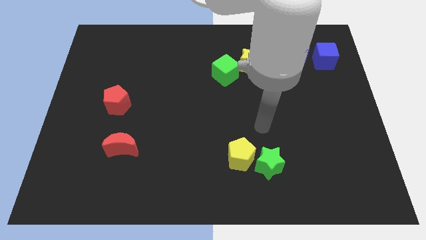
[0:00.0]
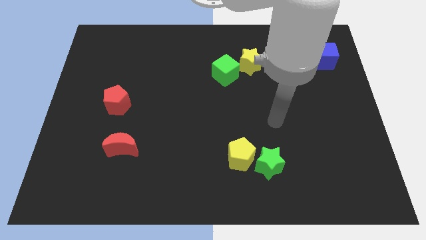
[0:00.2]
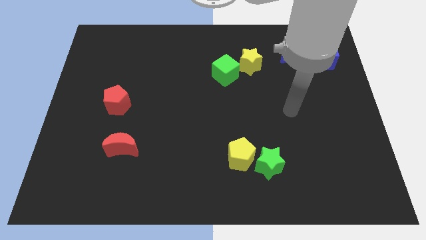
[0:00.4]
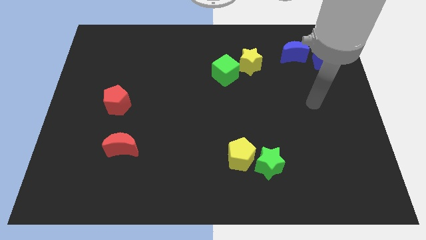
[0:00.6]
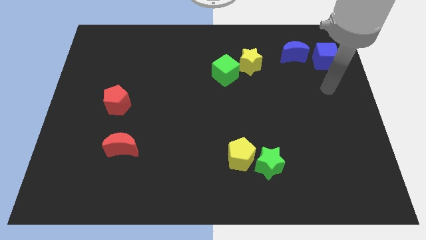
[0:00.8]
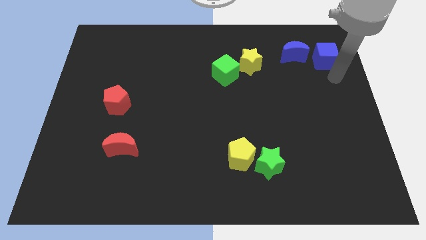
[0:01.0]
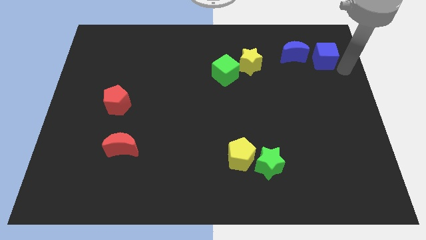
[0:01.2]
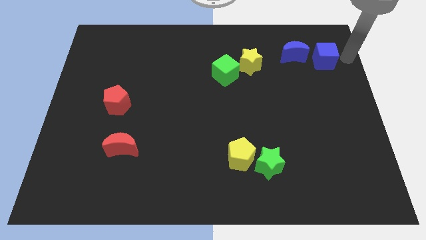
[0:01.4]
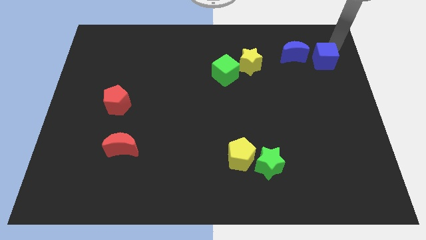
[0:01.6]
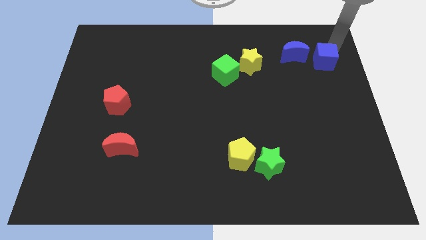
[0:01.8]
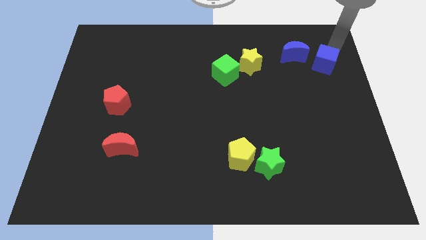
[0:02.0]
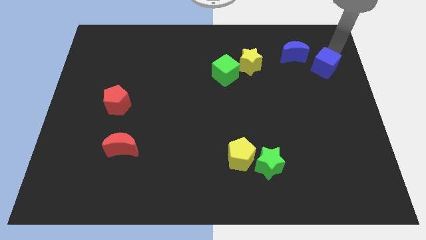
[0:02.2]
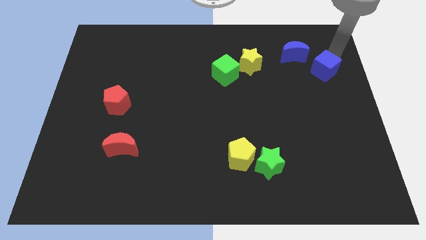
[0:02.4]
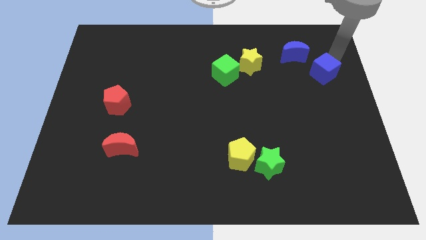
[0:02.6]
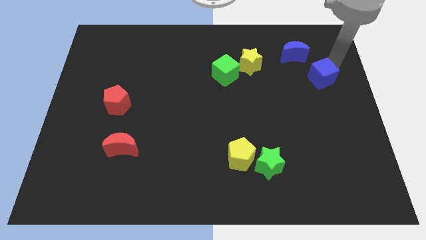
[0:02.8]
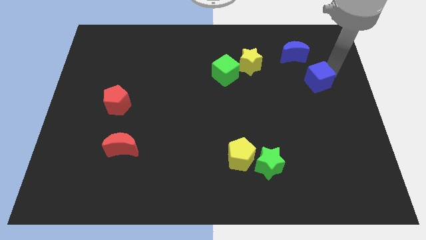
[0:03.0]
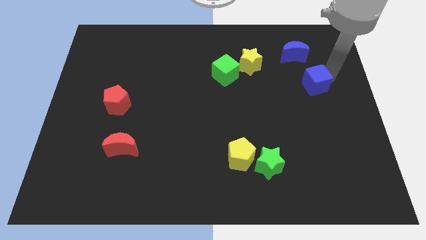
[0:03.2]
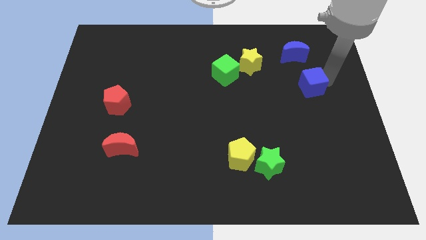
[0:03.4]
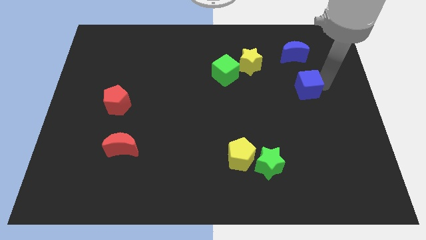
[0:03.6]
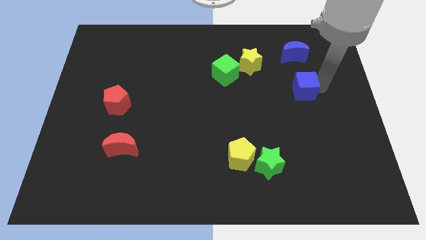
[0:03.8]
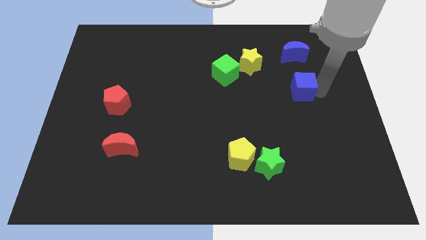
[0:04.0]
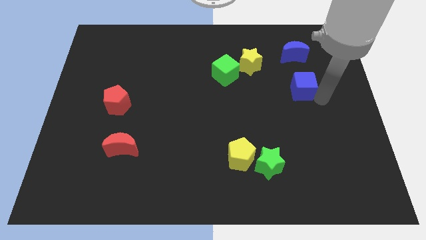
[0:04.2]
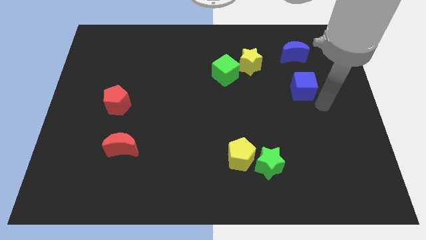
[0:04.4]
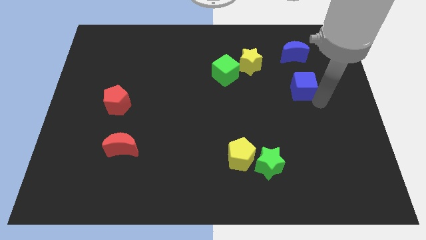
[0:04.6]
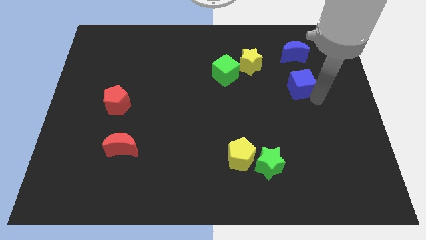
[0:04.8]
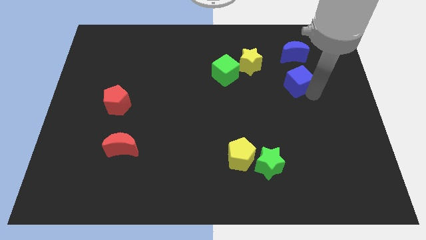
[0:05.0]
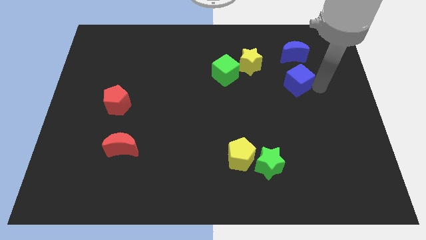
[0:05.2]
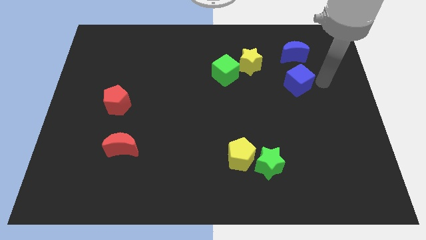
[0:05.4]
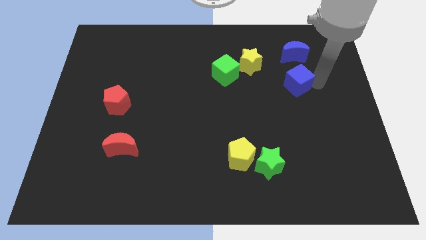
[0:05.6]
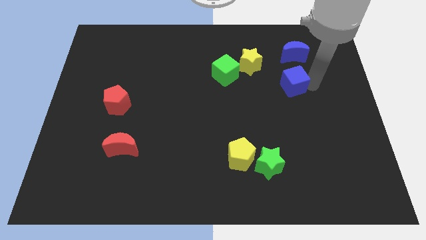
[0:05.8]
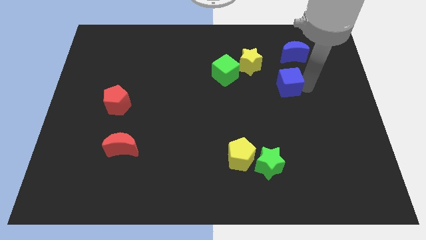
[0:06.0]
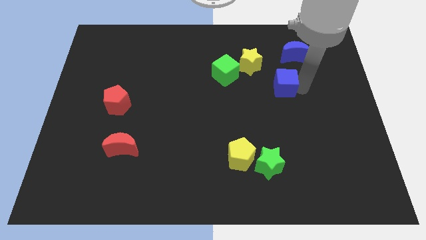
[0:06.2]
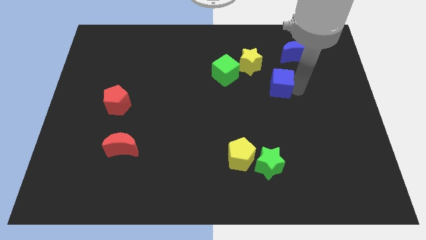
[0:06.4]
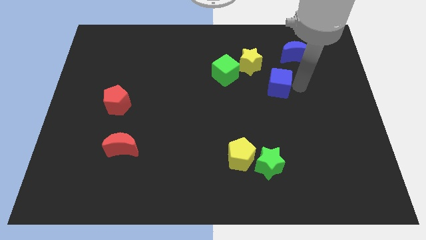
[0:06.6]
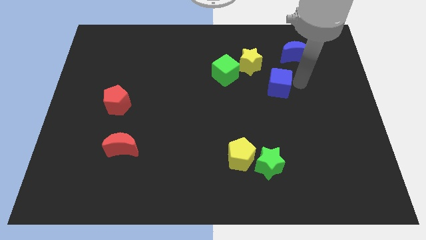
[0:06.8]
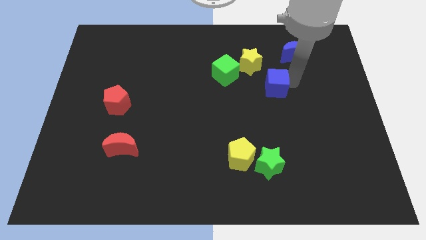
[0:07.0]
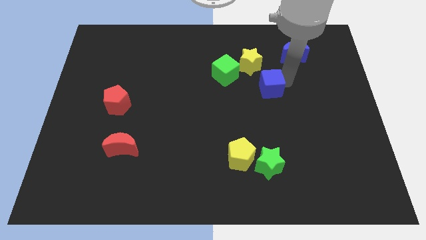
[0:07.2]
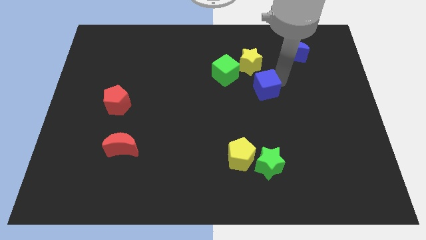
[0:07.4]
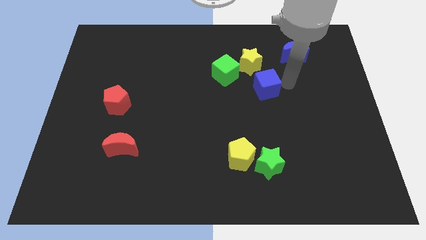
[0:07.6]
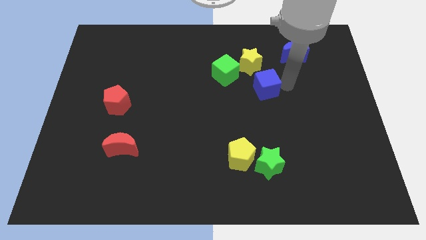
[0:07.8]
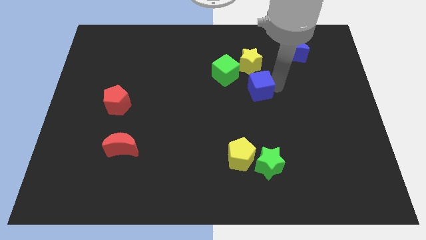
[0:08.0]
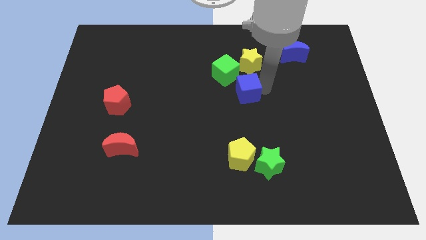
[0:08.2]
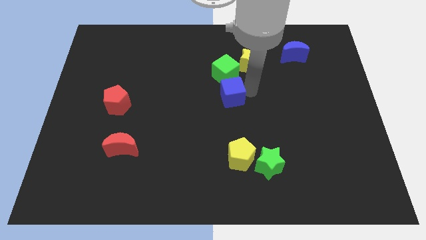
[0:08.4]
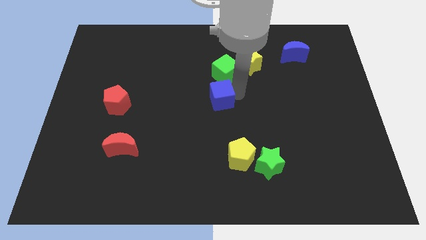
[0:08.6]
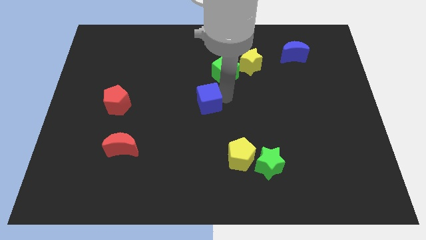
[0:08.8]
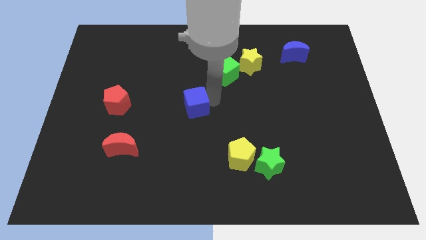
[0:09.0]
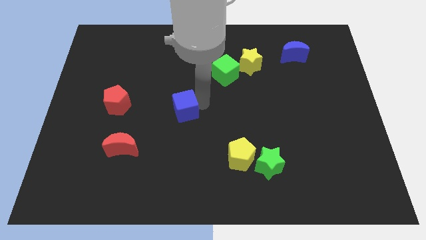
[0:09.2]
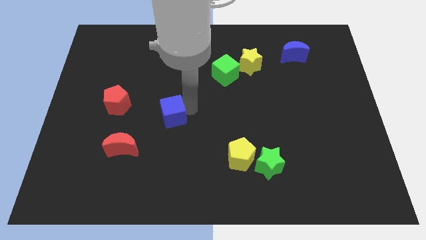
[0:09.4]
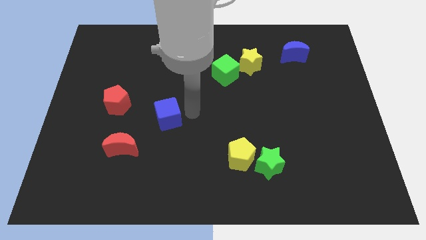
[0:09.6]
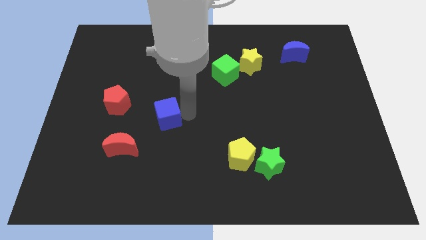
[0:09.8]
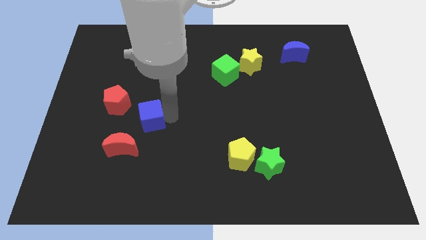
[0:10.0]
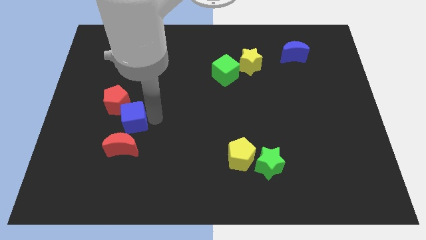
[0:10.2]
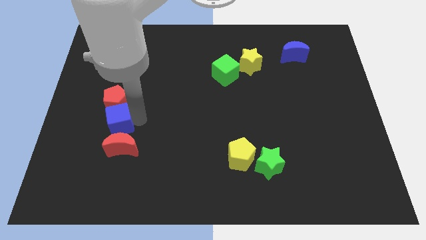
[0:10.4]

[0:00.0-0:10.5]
move the blue cube to the top left of the red moon

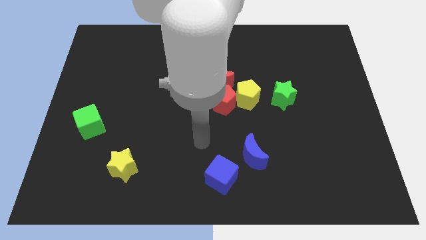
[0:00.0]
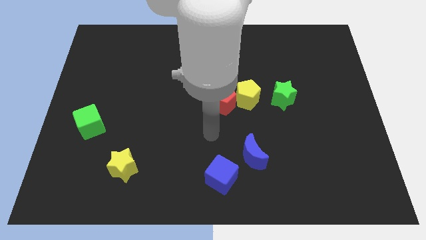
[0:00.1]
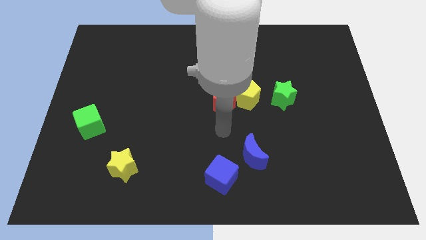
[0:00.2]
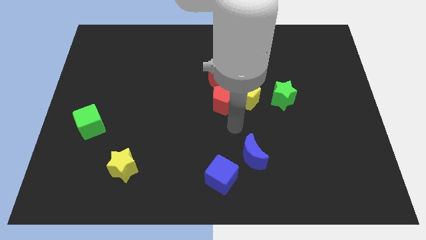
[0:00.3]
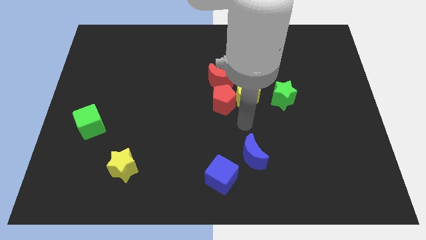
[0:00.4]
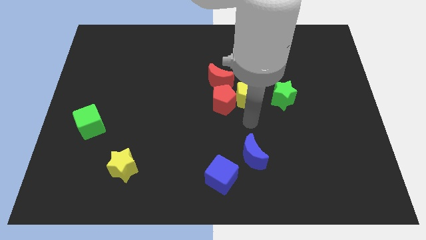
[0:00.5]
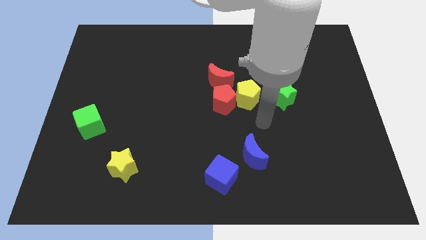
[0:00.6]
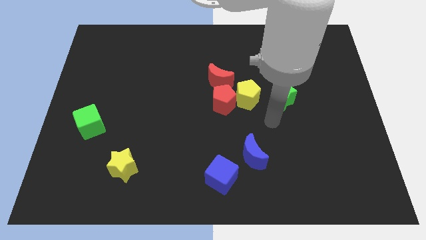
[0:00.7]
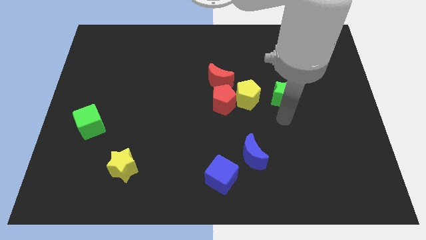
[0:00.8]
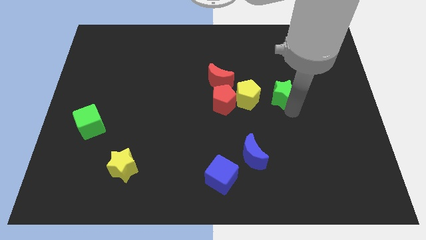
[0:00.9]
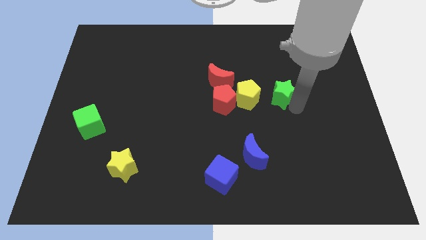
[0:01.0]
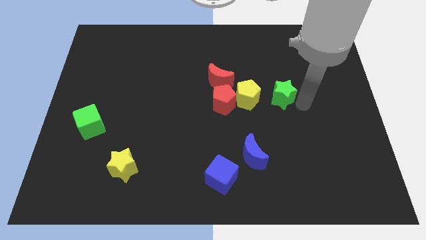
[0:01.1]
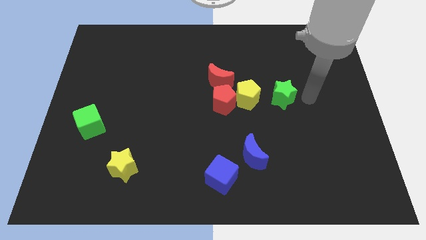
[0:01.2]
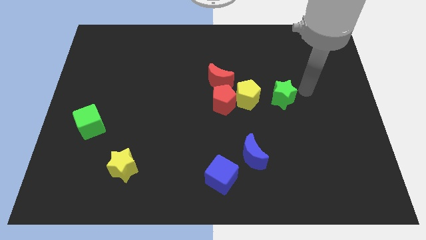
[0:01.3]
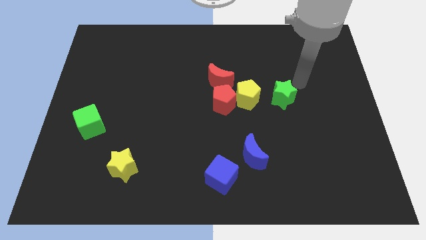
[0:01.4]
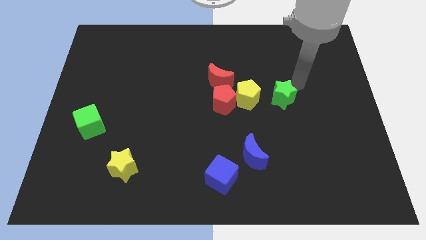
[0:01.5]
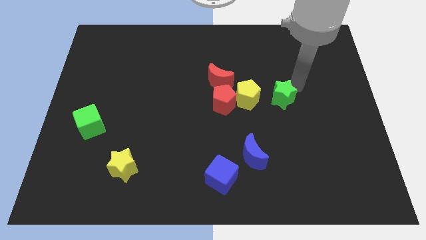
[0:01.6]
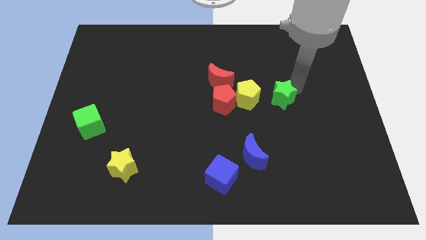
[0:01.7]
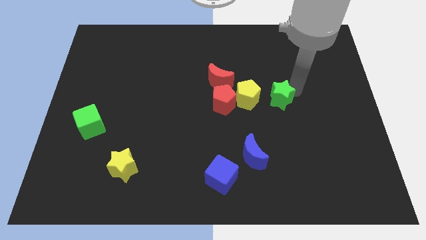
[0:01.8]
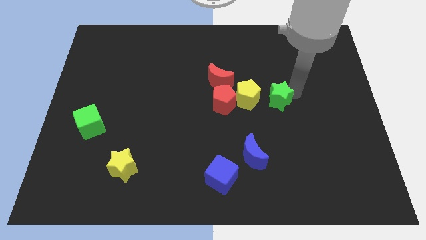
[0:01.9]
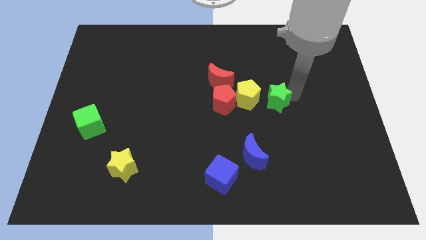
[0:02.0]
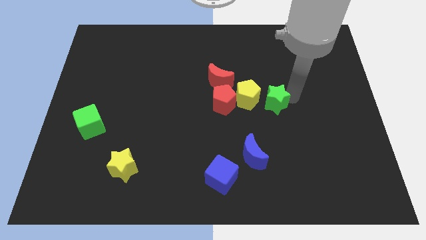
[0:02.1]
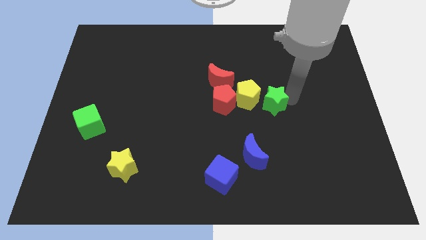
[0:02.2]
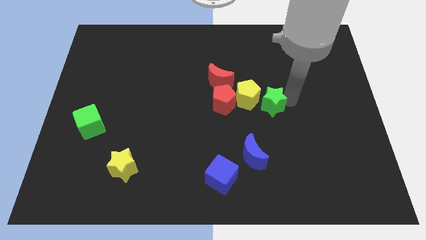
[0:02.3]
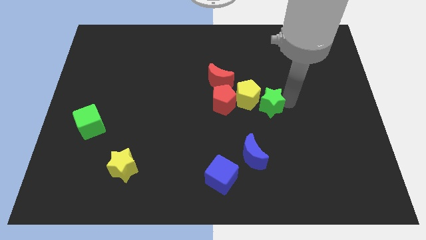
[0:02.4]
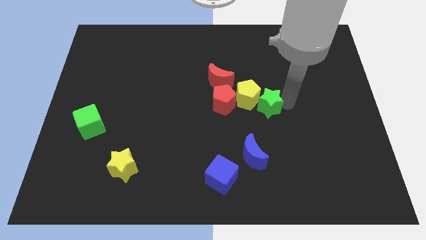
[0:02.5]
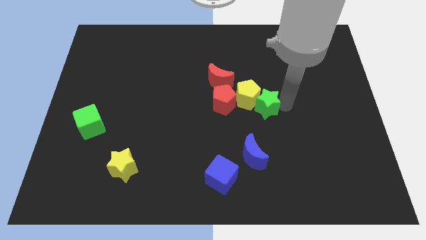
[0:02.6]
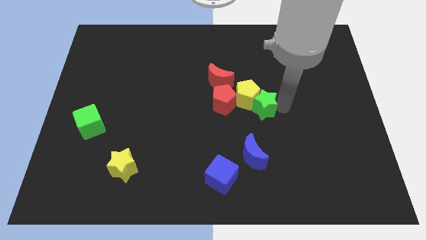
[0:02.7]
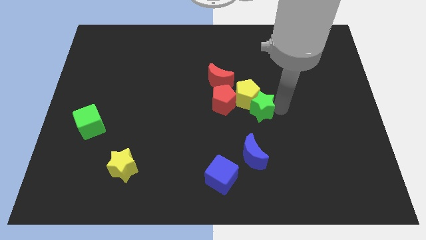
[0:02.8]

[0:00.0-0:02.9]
slide the green star diagonally down and to the right of the red pentagon
